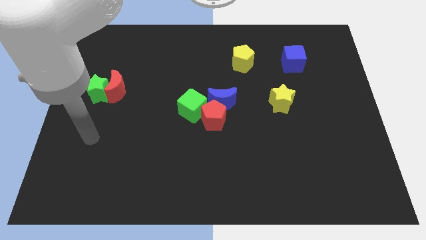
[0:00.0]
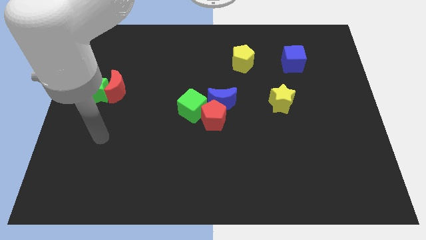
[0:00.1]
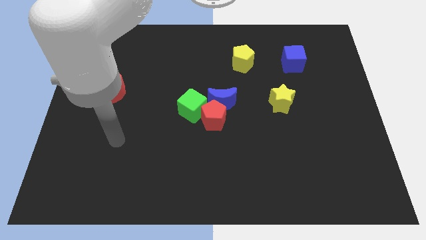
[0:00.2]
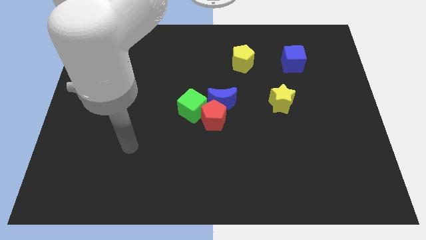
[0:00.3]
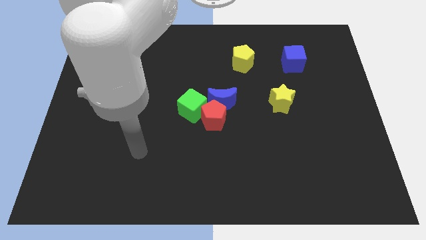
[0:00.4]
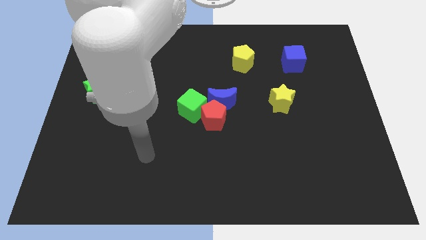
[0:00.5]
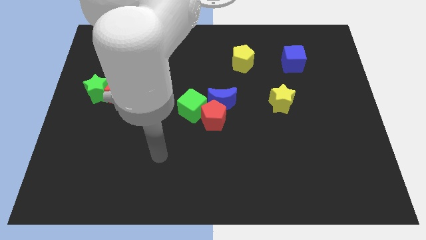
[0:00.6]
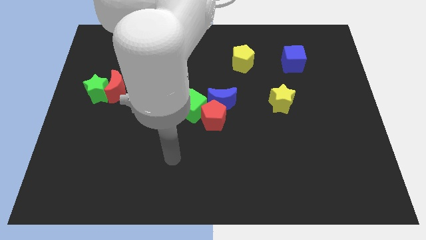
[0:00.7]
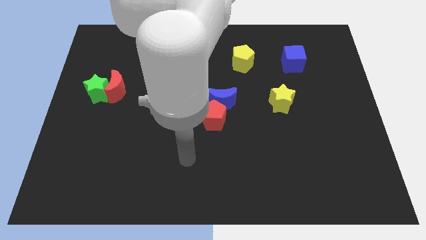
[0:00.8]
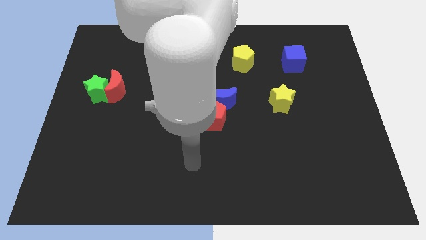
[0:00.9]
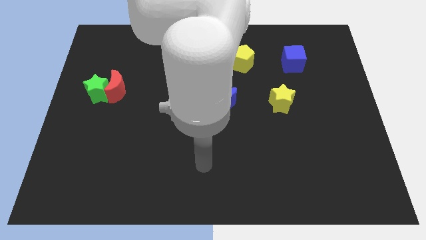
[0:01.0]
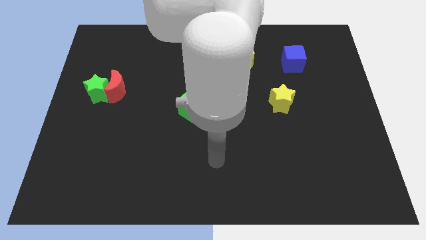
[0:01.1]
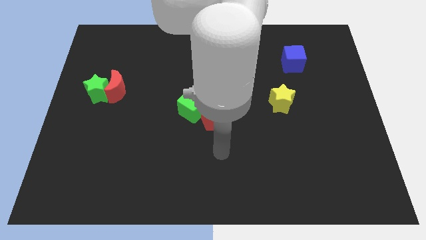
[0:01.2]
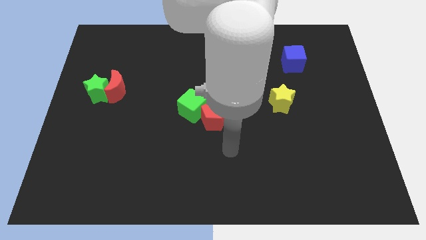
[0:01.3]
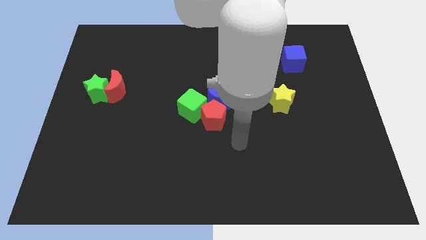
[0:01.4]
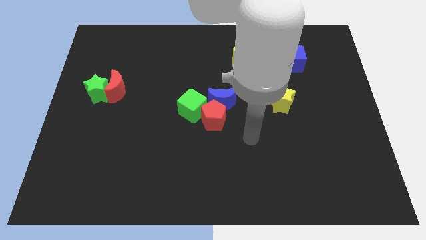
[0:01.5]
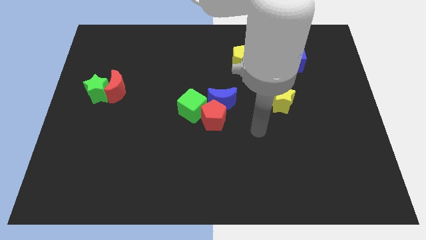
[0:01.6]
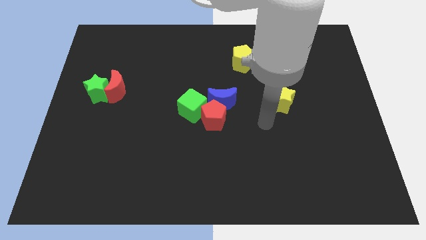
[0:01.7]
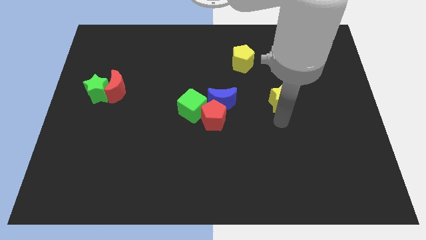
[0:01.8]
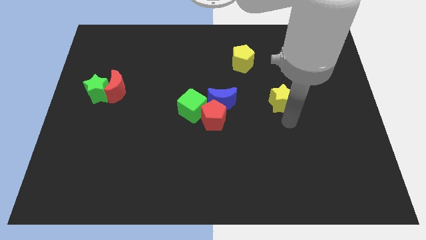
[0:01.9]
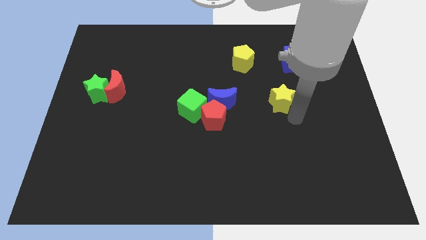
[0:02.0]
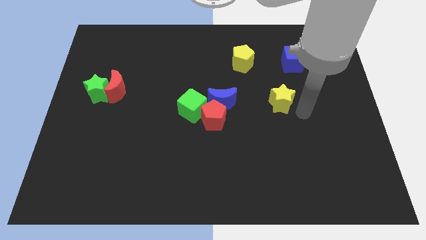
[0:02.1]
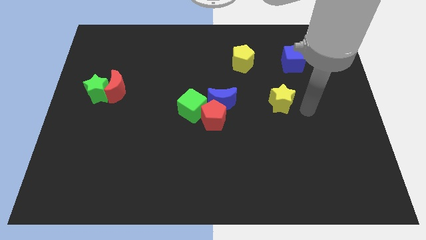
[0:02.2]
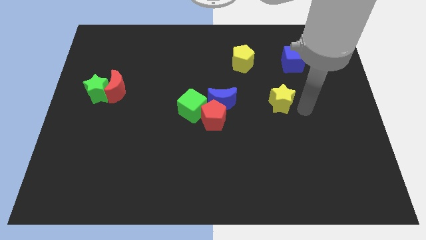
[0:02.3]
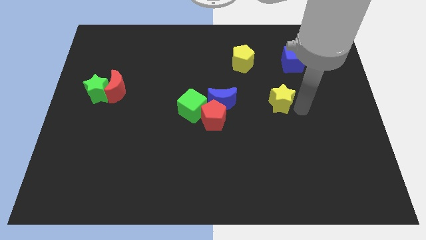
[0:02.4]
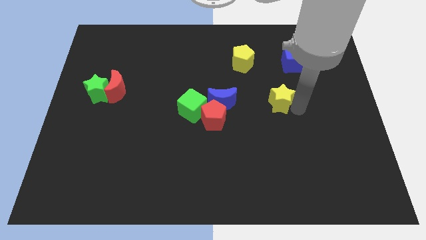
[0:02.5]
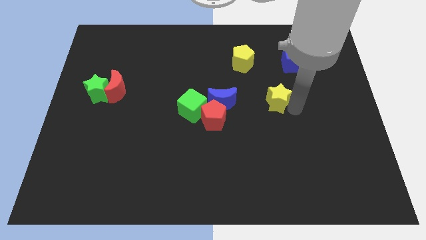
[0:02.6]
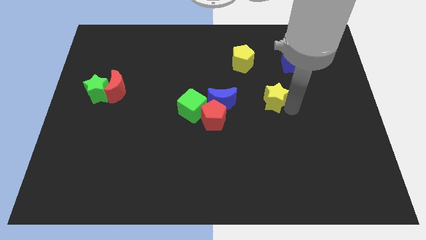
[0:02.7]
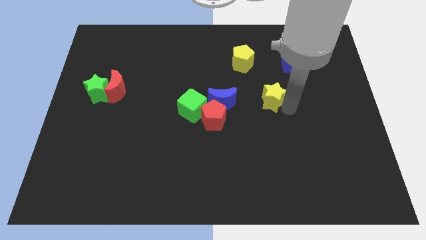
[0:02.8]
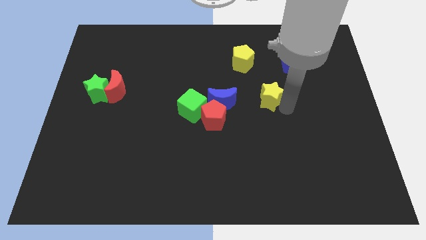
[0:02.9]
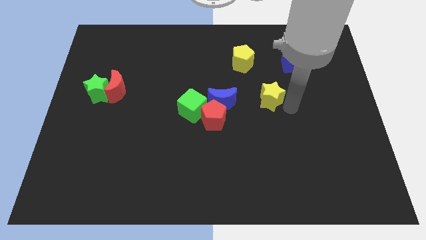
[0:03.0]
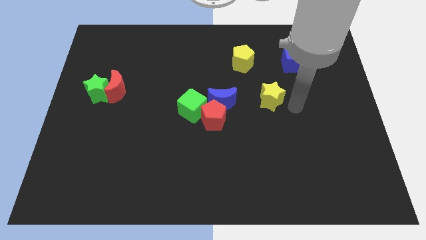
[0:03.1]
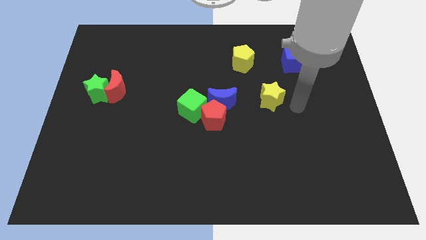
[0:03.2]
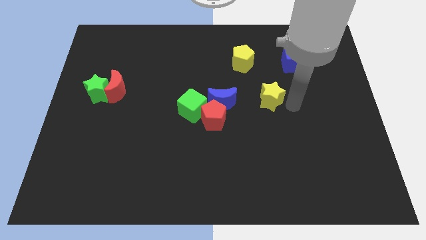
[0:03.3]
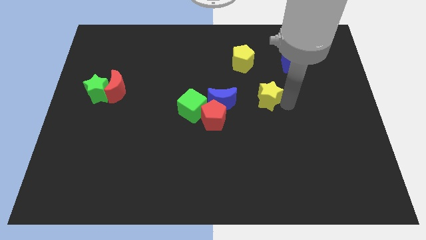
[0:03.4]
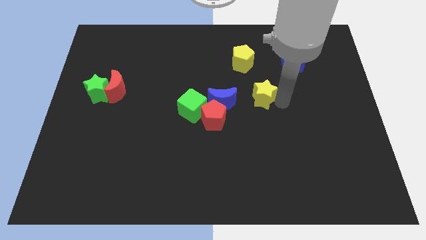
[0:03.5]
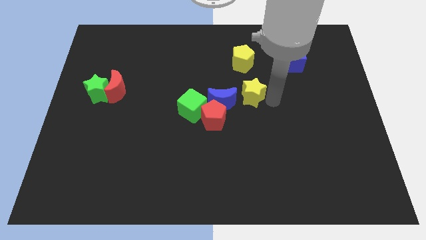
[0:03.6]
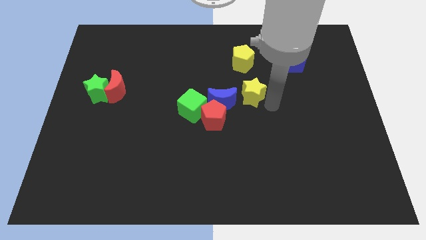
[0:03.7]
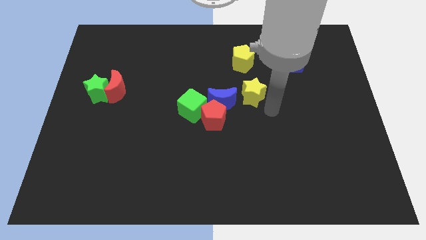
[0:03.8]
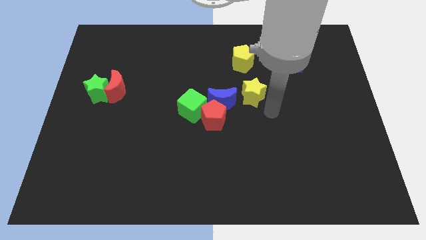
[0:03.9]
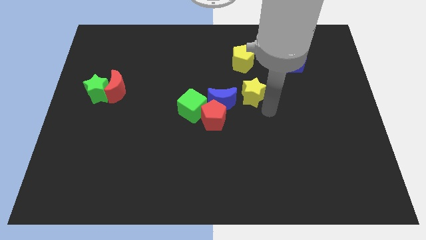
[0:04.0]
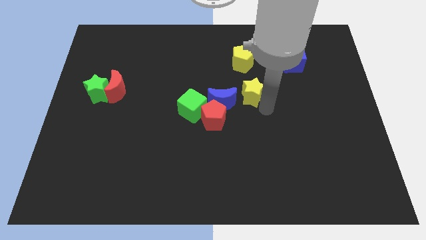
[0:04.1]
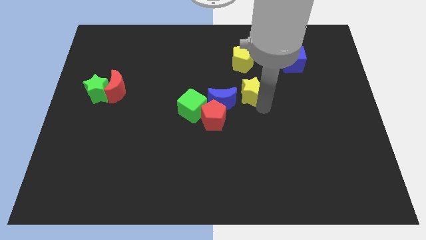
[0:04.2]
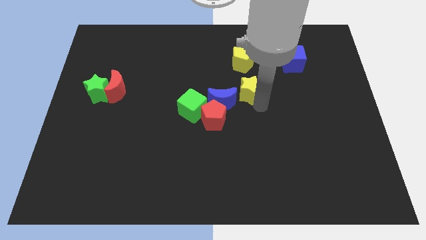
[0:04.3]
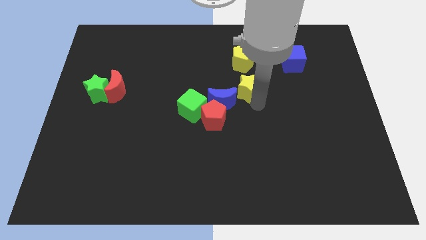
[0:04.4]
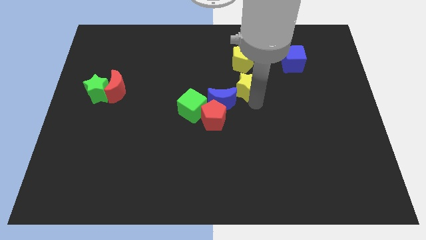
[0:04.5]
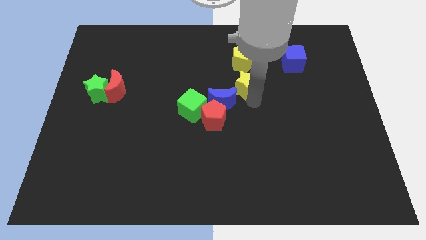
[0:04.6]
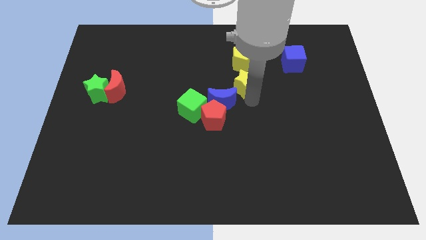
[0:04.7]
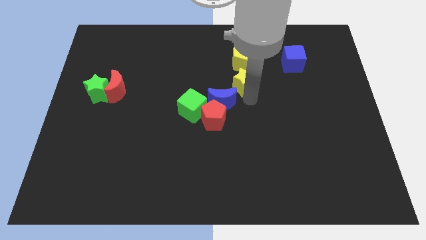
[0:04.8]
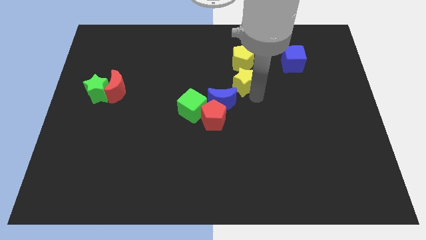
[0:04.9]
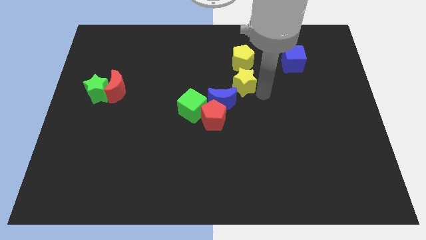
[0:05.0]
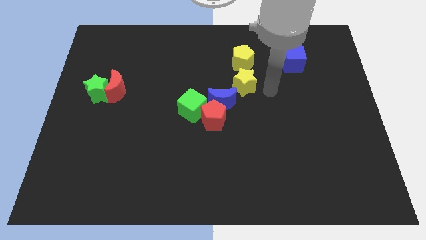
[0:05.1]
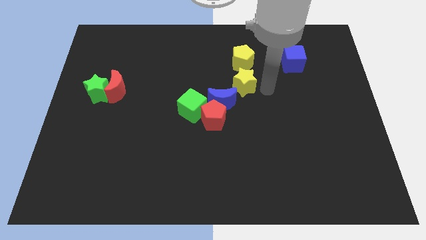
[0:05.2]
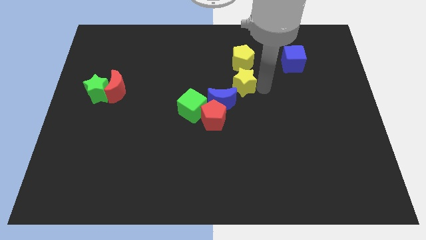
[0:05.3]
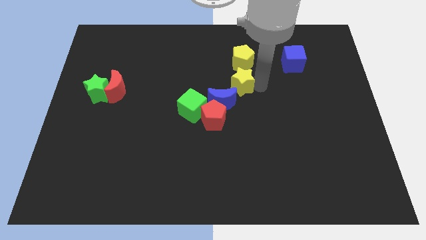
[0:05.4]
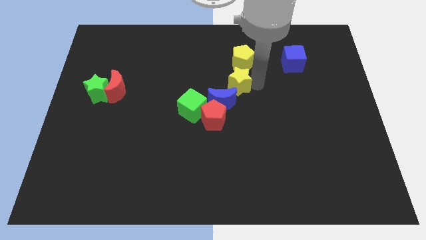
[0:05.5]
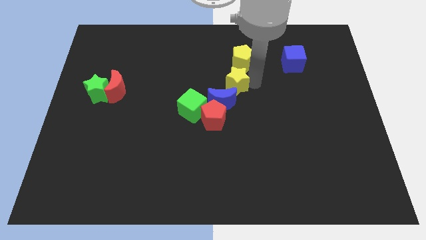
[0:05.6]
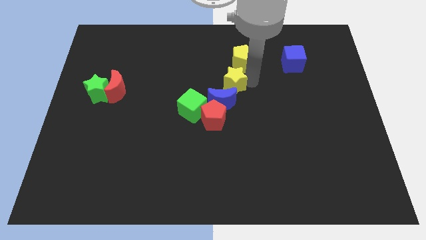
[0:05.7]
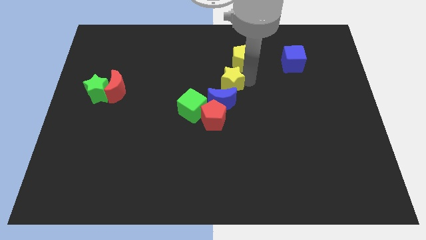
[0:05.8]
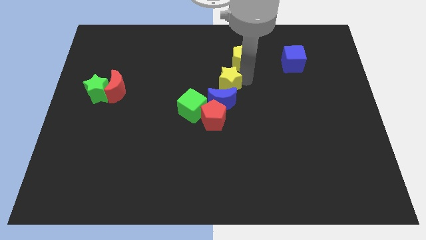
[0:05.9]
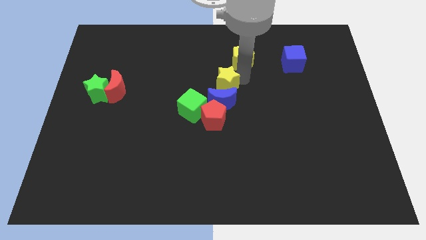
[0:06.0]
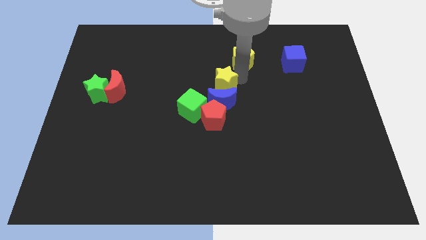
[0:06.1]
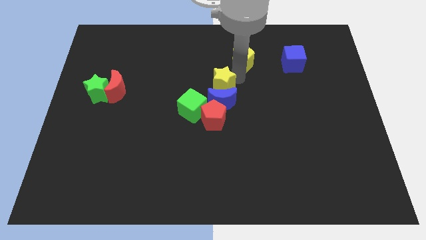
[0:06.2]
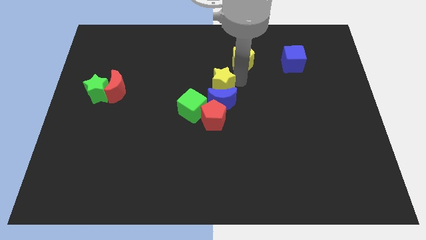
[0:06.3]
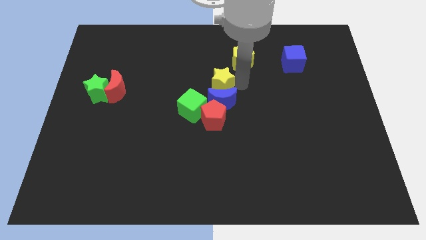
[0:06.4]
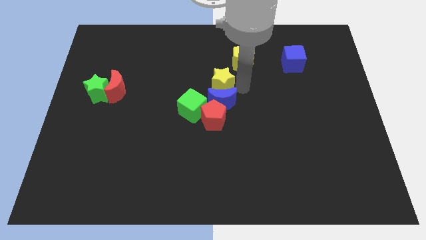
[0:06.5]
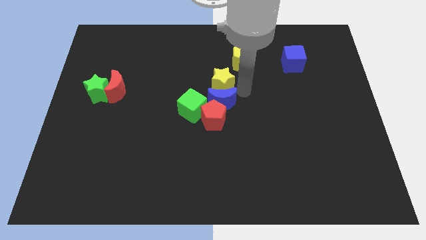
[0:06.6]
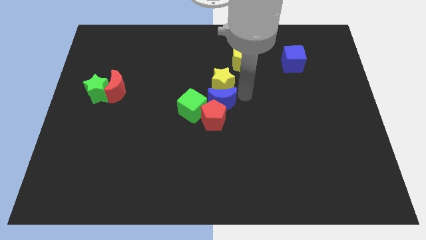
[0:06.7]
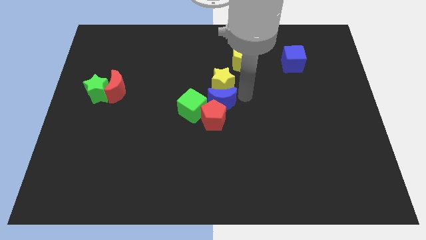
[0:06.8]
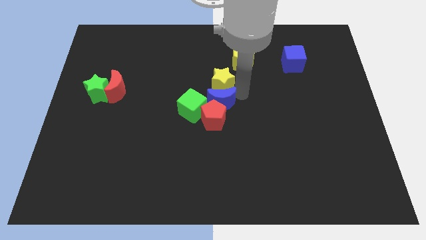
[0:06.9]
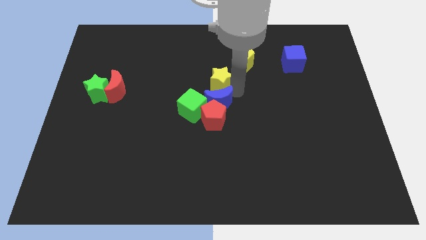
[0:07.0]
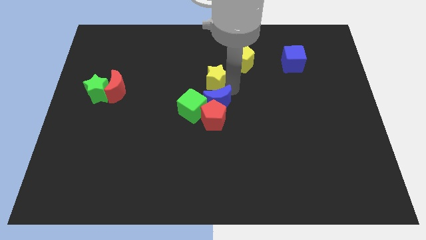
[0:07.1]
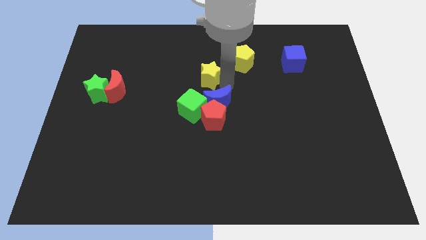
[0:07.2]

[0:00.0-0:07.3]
put the yellow star to the top side of the green cube
